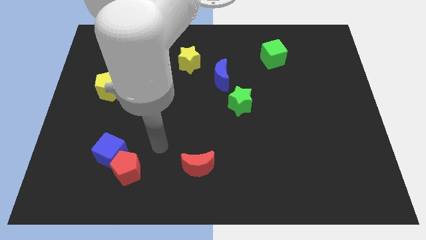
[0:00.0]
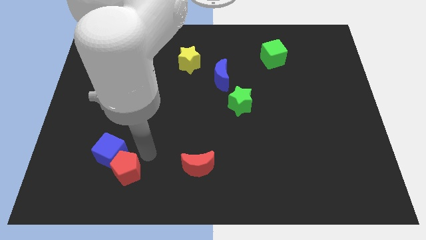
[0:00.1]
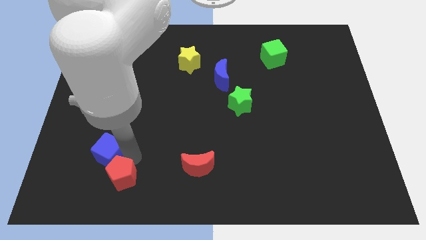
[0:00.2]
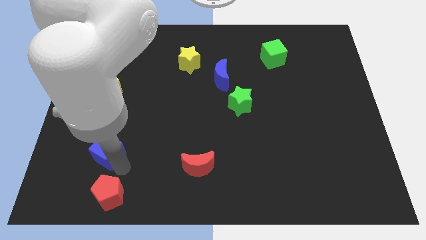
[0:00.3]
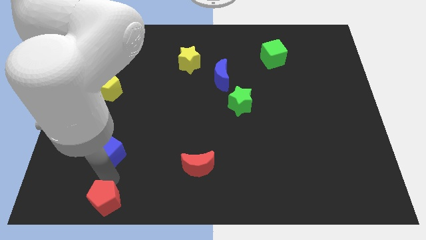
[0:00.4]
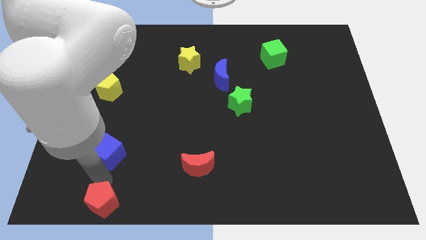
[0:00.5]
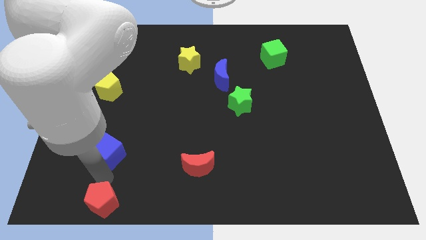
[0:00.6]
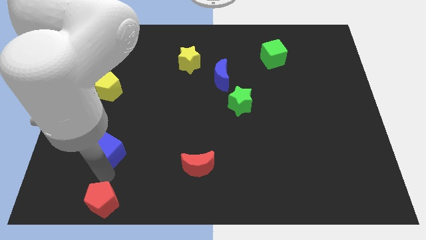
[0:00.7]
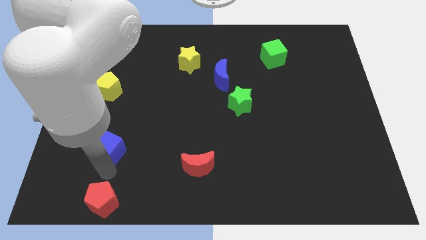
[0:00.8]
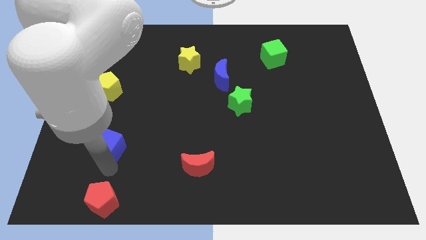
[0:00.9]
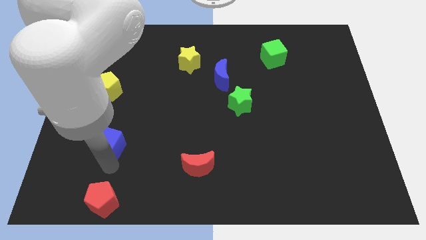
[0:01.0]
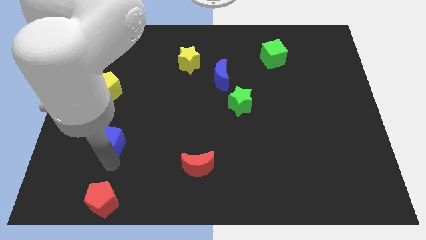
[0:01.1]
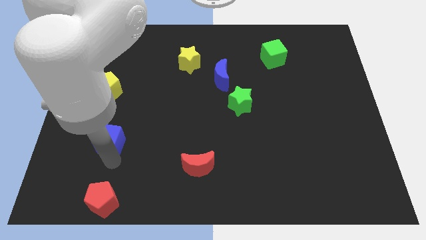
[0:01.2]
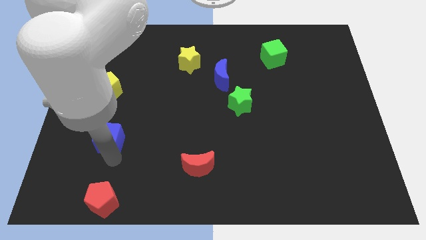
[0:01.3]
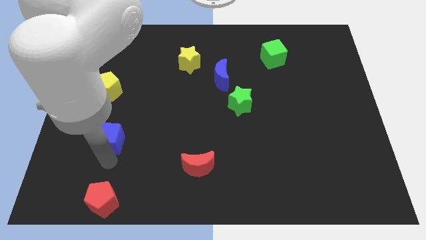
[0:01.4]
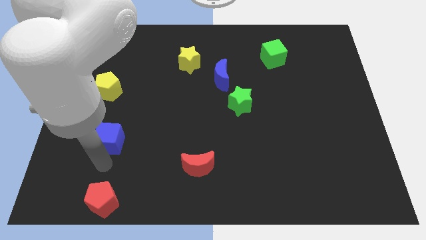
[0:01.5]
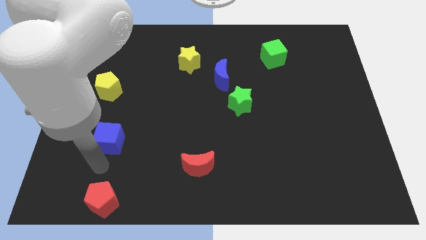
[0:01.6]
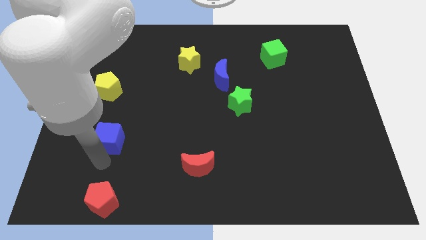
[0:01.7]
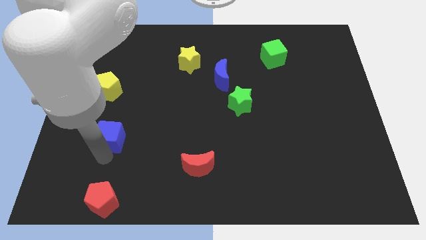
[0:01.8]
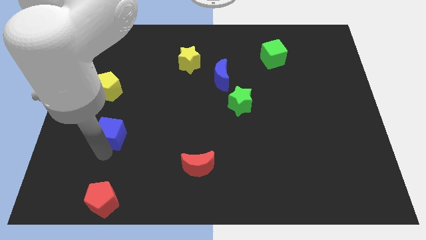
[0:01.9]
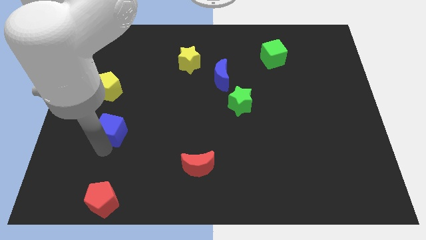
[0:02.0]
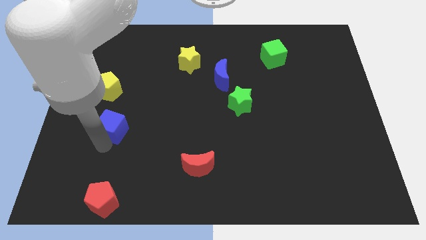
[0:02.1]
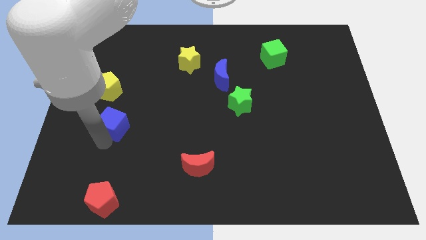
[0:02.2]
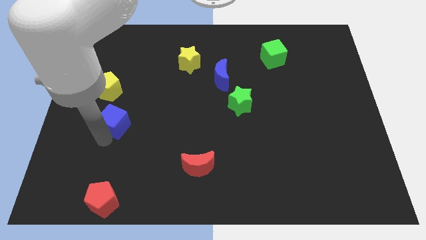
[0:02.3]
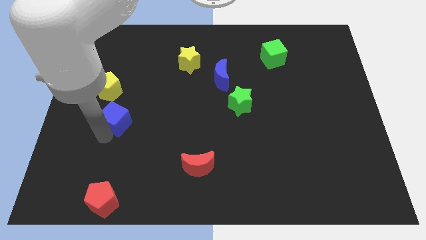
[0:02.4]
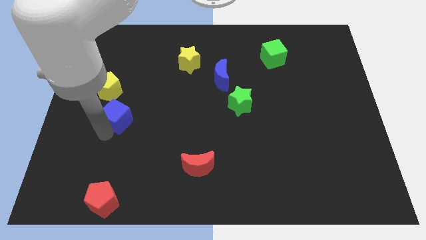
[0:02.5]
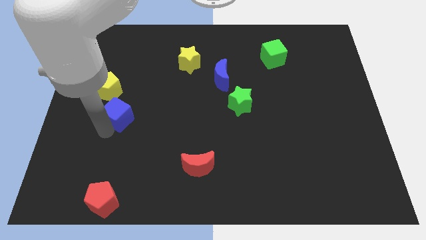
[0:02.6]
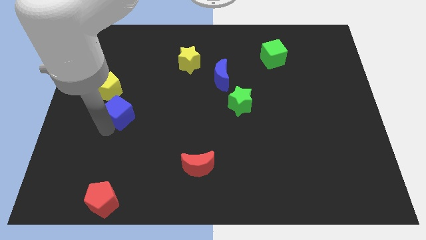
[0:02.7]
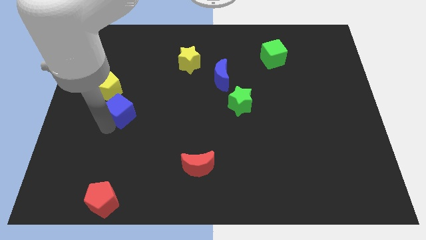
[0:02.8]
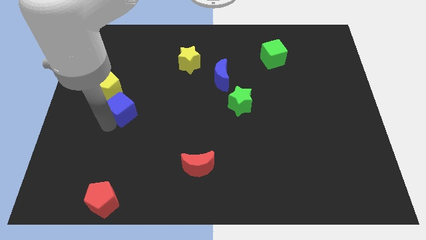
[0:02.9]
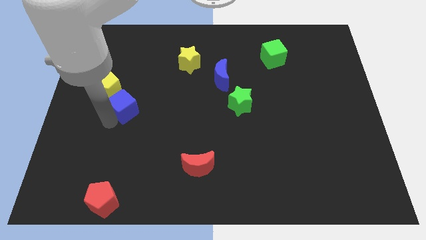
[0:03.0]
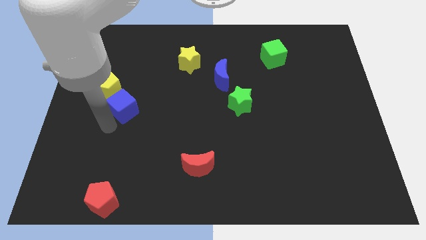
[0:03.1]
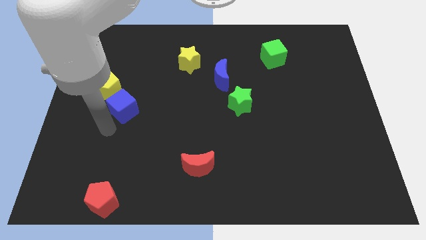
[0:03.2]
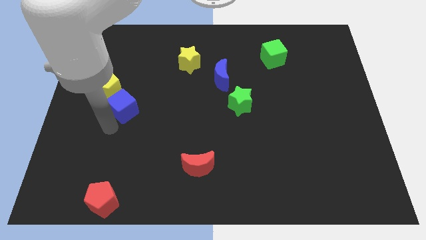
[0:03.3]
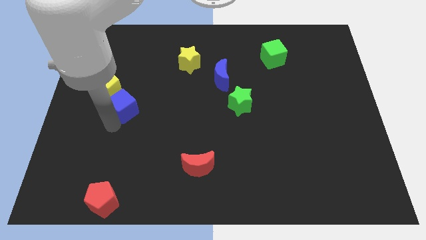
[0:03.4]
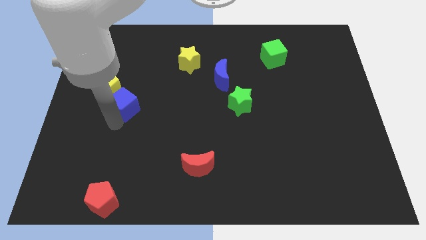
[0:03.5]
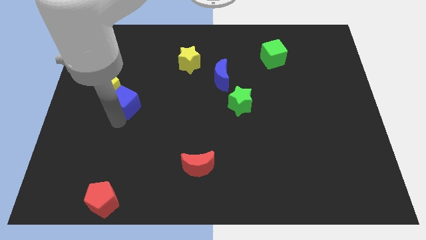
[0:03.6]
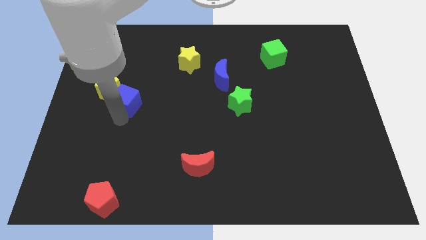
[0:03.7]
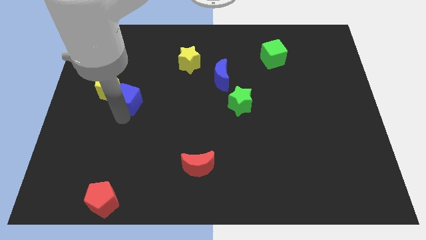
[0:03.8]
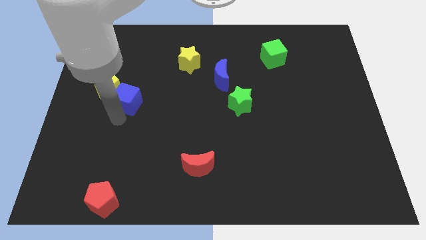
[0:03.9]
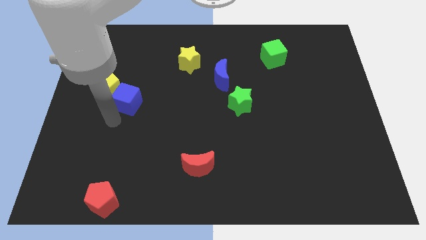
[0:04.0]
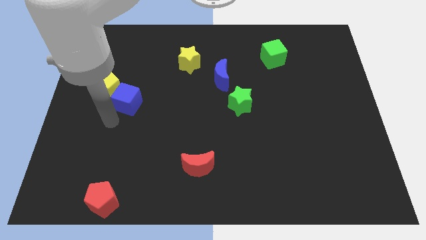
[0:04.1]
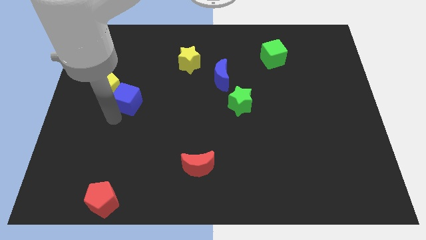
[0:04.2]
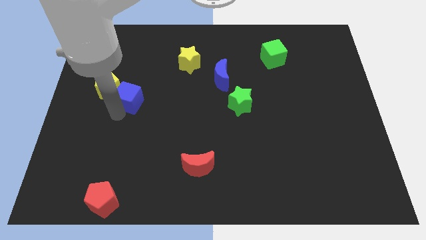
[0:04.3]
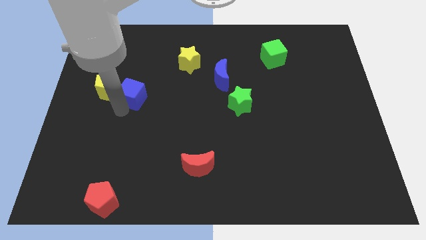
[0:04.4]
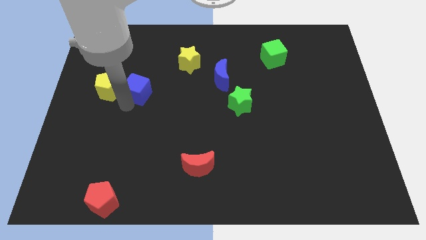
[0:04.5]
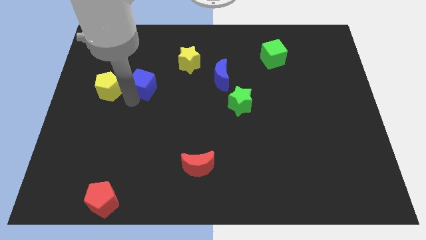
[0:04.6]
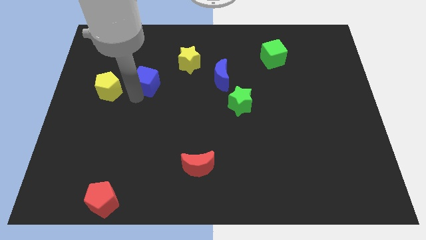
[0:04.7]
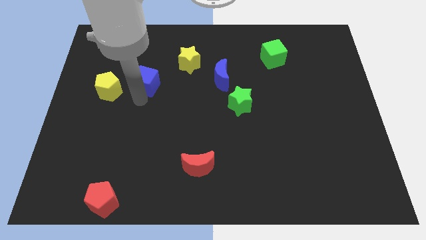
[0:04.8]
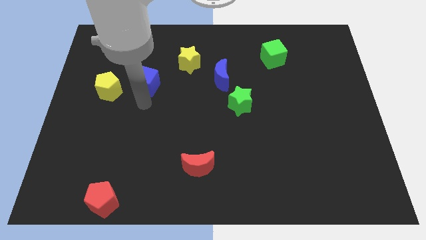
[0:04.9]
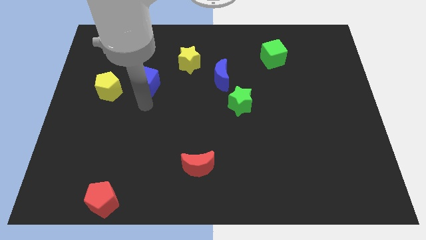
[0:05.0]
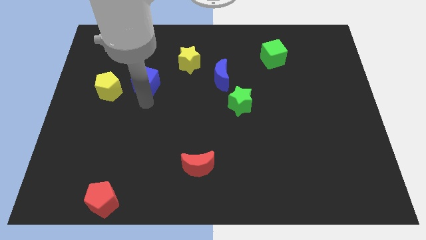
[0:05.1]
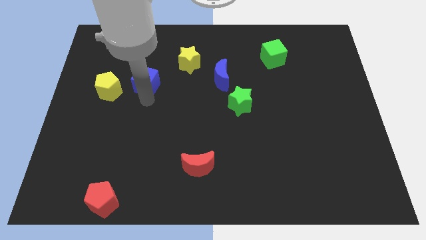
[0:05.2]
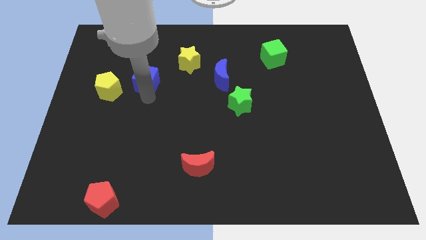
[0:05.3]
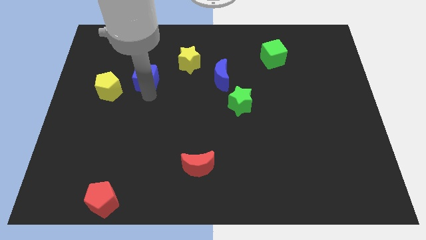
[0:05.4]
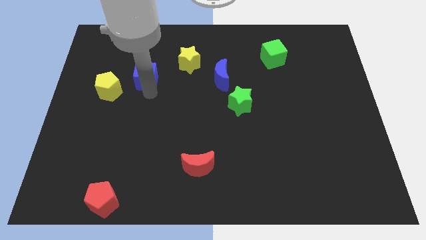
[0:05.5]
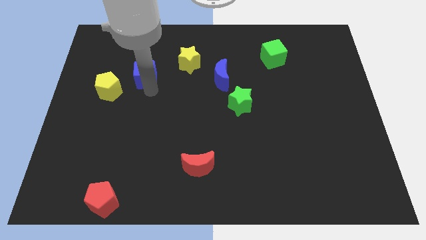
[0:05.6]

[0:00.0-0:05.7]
move the blue cube to the left of the yellow star

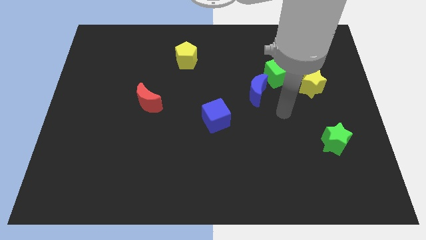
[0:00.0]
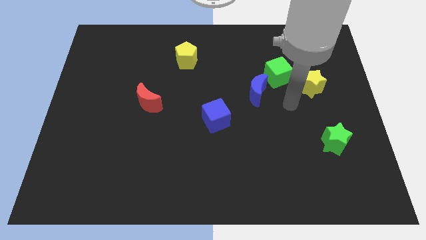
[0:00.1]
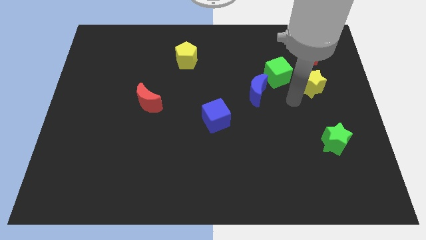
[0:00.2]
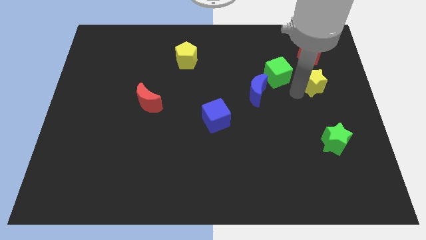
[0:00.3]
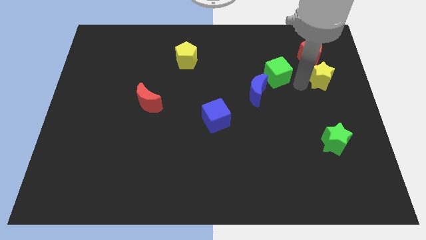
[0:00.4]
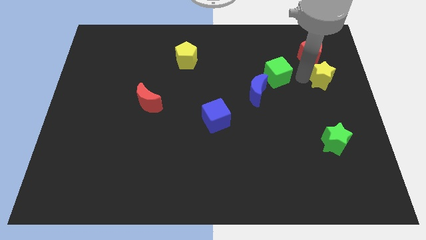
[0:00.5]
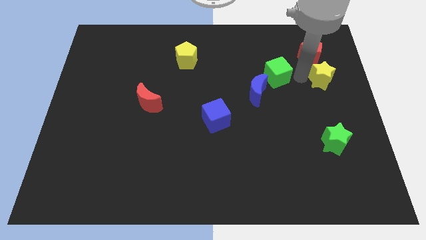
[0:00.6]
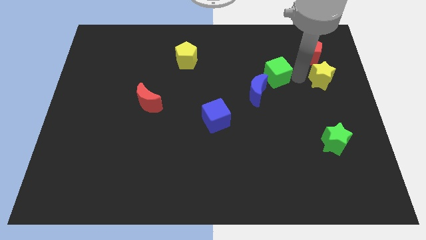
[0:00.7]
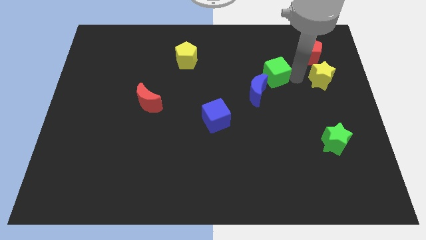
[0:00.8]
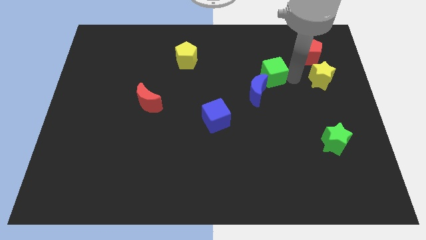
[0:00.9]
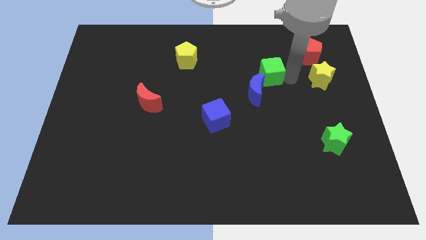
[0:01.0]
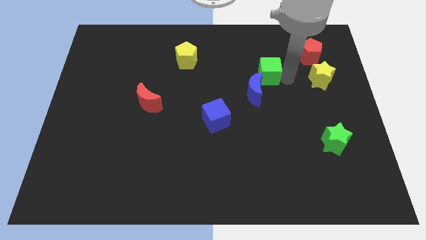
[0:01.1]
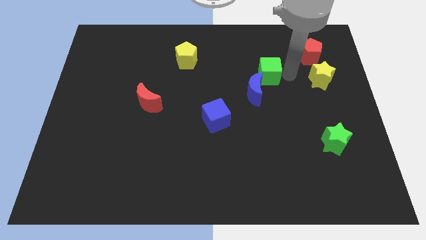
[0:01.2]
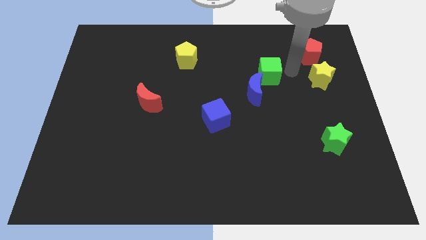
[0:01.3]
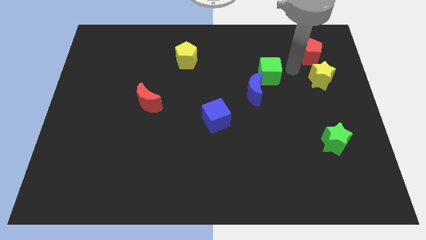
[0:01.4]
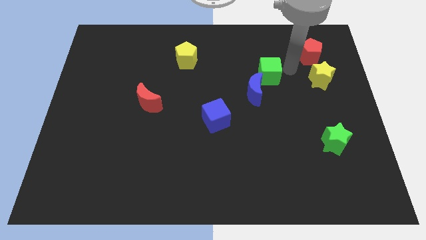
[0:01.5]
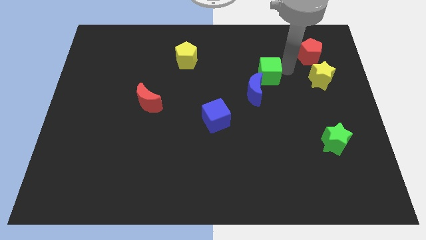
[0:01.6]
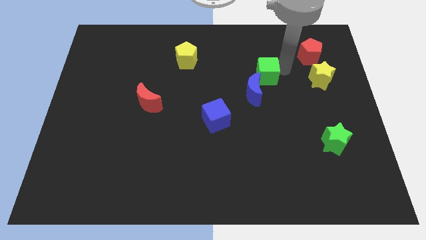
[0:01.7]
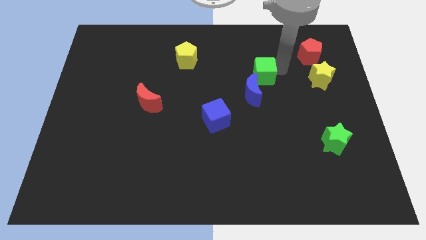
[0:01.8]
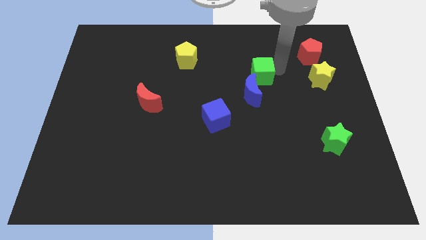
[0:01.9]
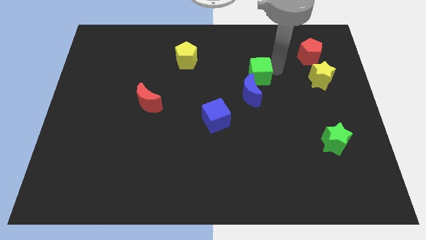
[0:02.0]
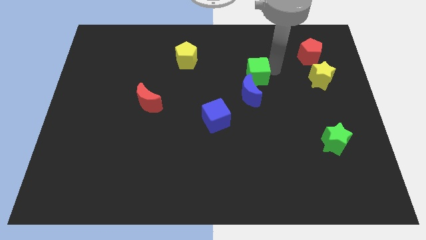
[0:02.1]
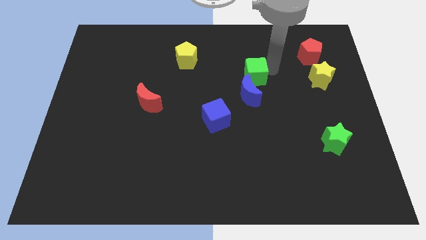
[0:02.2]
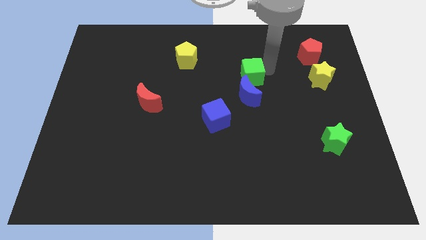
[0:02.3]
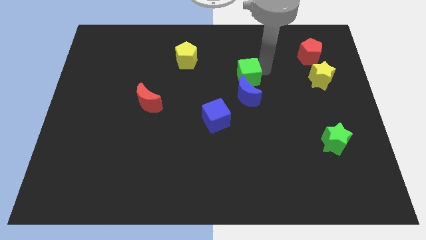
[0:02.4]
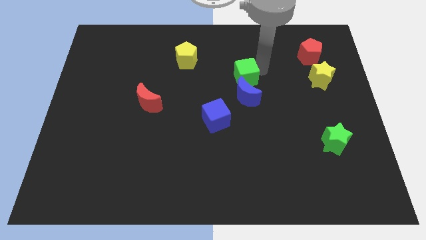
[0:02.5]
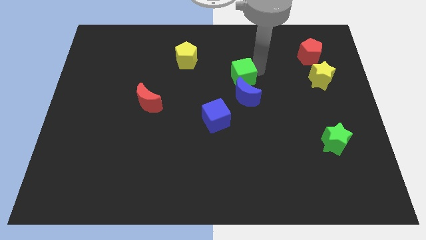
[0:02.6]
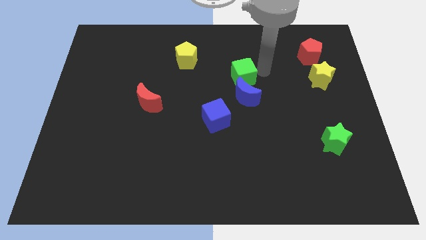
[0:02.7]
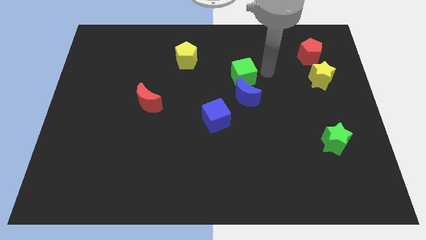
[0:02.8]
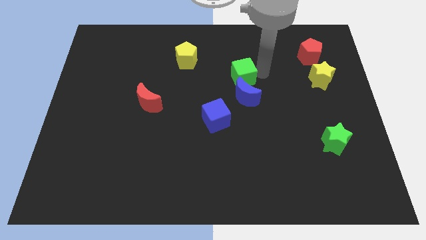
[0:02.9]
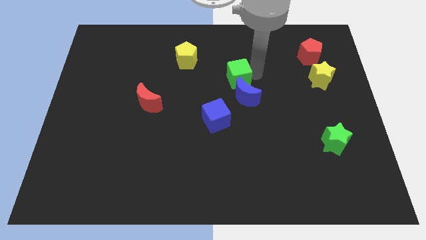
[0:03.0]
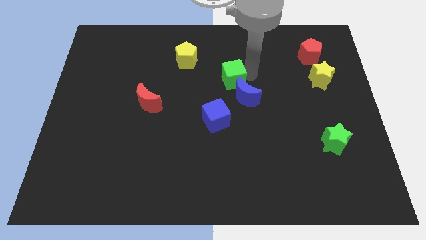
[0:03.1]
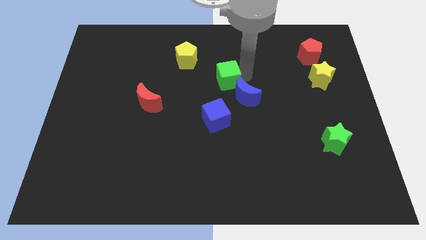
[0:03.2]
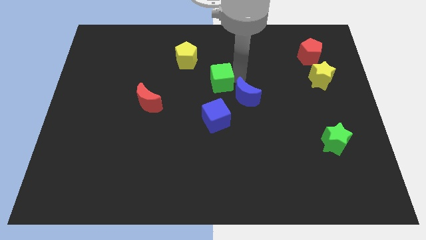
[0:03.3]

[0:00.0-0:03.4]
slide the green cube to the bottom right side of the yellow pentagon
